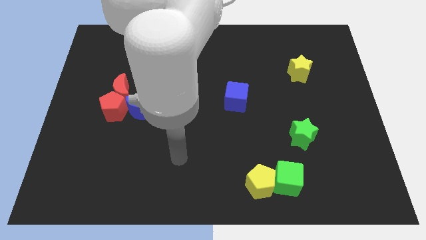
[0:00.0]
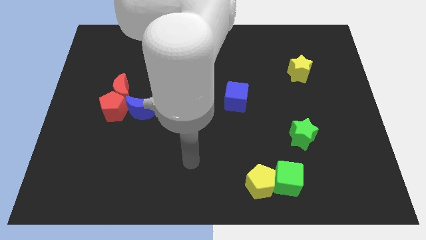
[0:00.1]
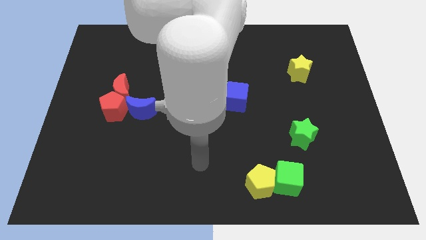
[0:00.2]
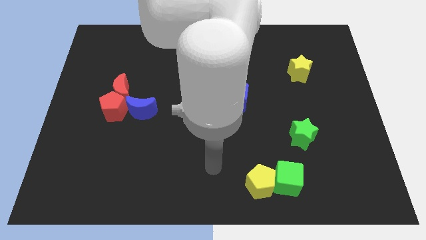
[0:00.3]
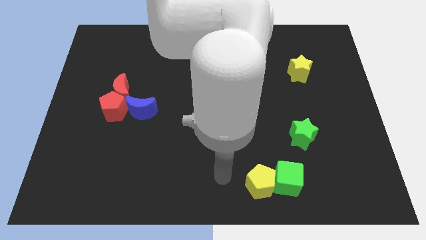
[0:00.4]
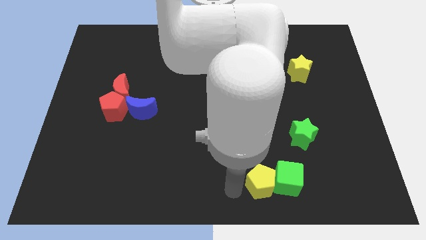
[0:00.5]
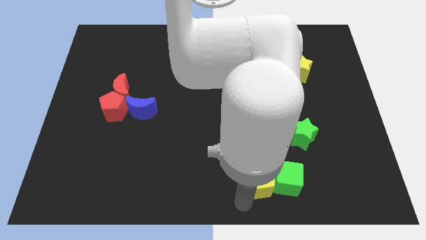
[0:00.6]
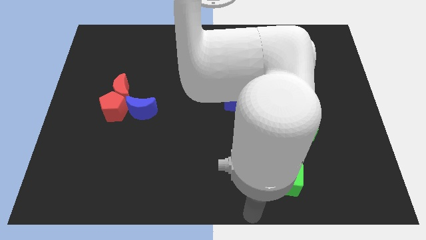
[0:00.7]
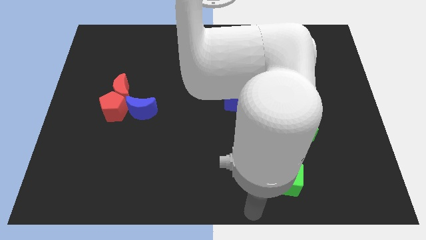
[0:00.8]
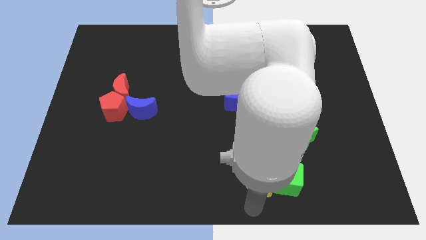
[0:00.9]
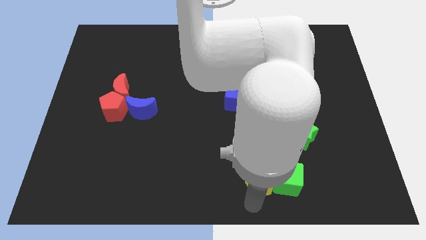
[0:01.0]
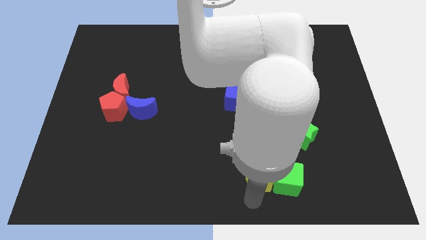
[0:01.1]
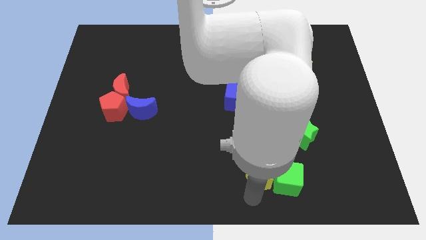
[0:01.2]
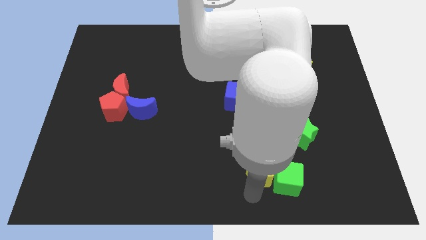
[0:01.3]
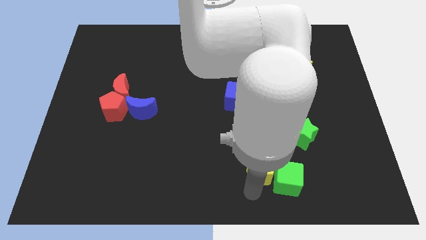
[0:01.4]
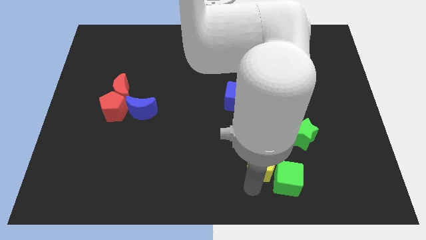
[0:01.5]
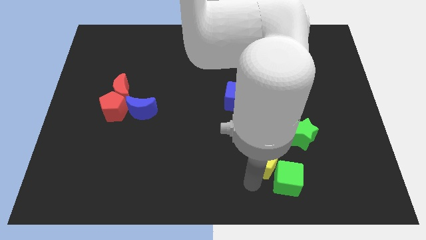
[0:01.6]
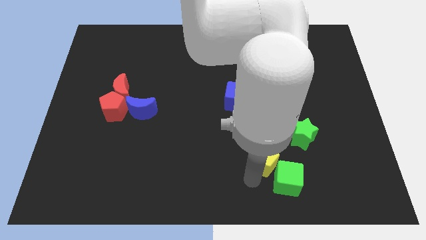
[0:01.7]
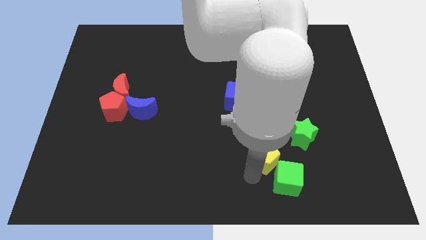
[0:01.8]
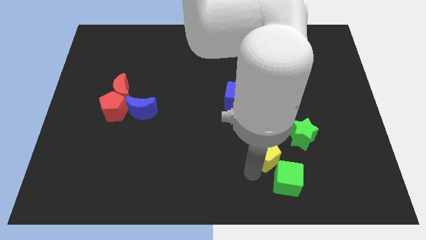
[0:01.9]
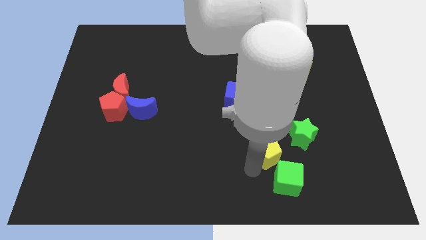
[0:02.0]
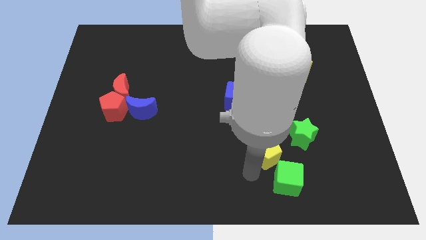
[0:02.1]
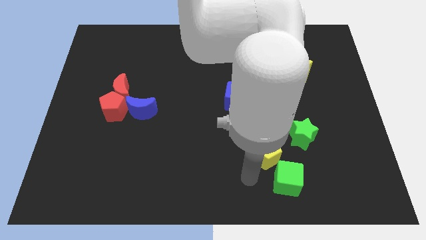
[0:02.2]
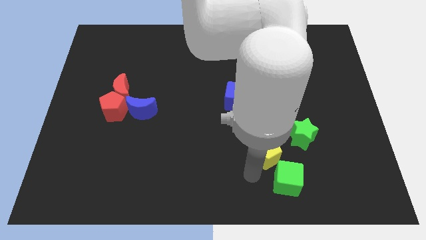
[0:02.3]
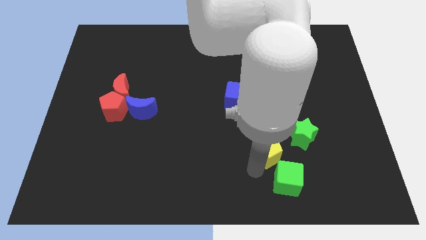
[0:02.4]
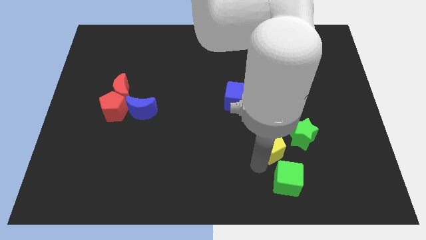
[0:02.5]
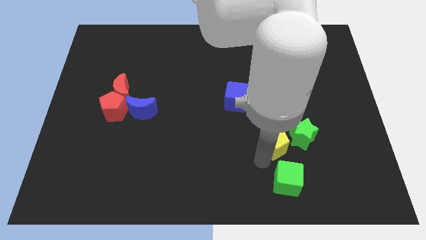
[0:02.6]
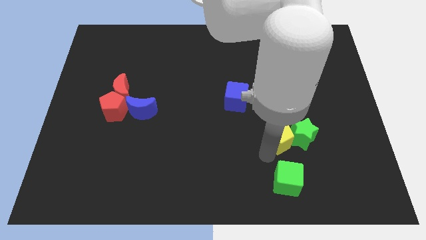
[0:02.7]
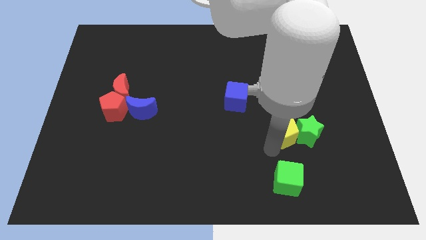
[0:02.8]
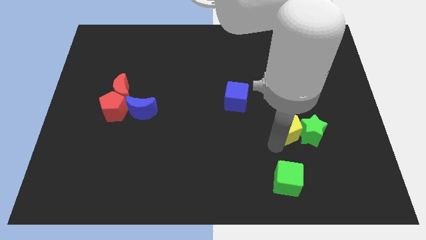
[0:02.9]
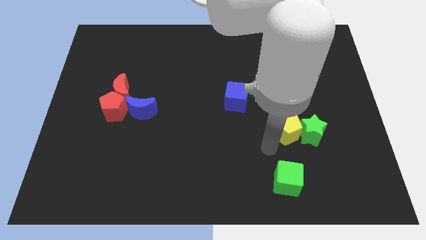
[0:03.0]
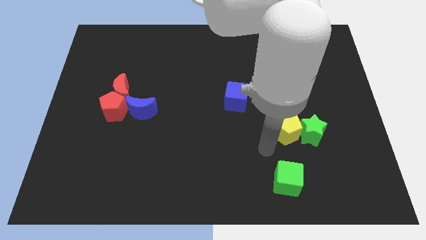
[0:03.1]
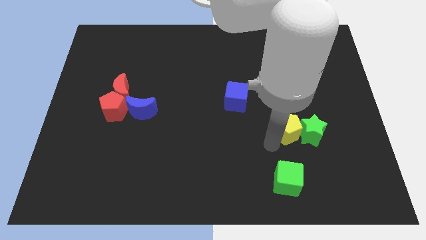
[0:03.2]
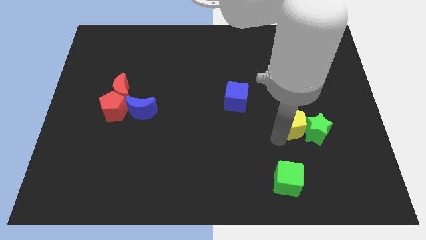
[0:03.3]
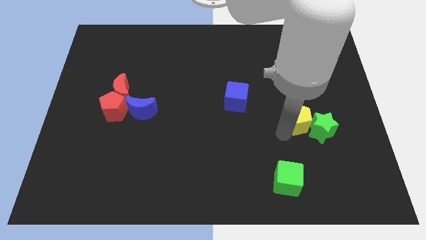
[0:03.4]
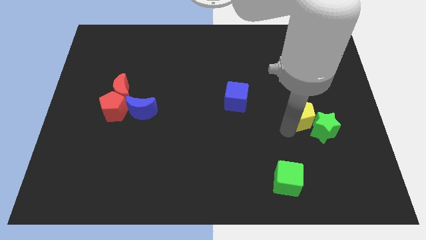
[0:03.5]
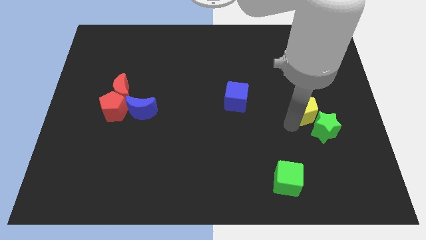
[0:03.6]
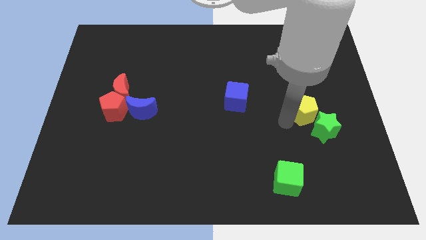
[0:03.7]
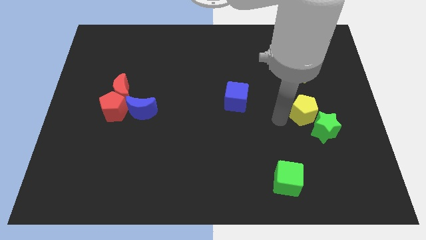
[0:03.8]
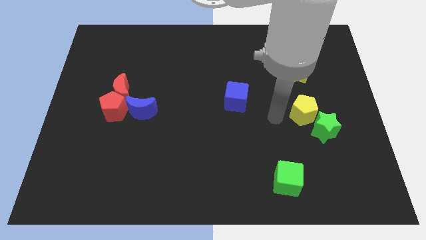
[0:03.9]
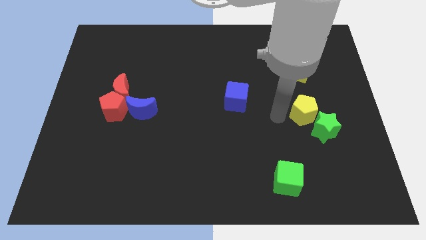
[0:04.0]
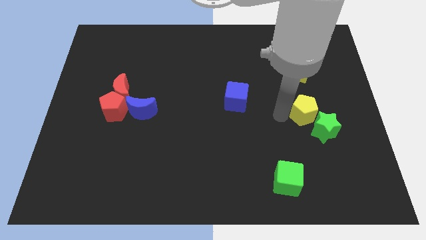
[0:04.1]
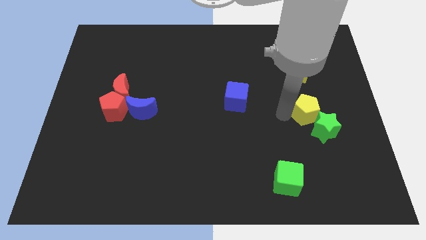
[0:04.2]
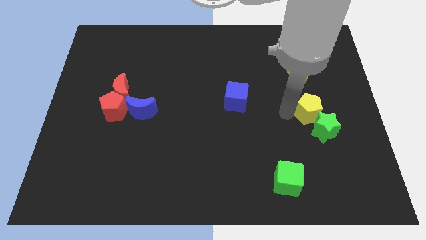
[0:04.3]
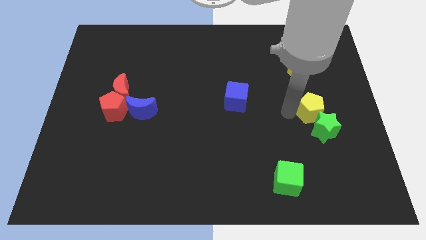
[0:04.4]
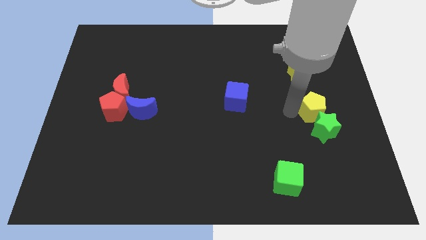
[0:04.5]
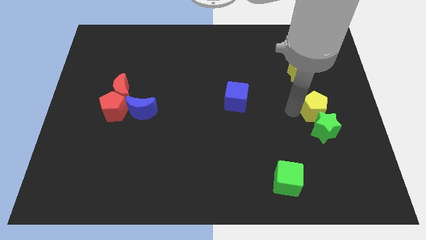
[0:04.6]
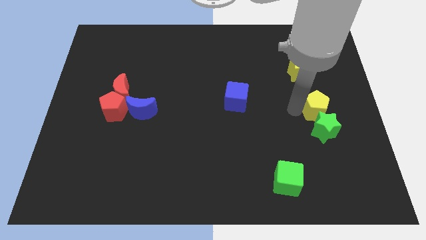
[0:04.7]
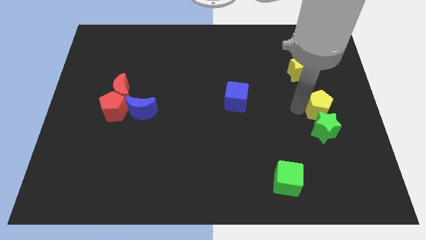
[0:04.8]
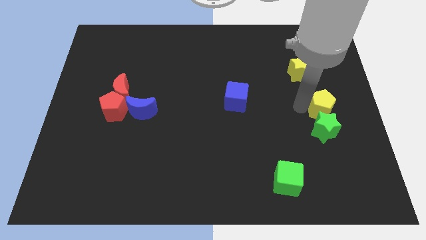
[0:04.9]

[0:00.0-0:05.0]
move the yellow pentagon to the center right

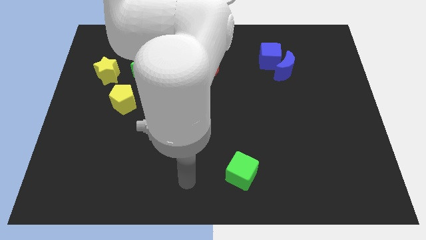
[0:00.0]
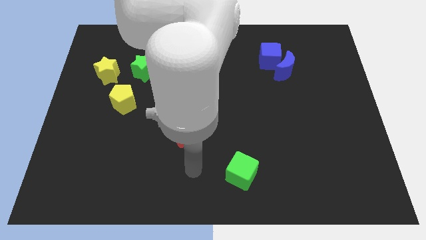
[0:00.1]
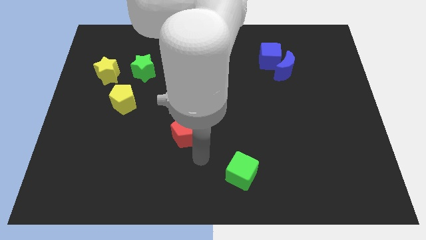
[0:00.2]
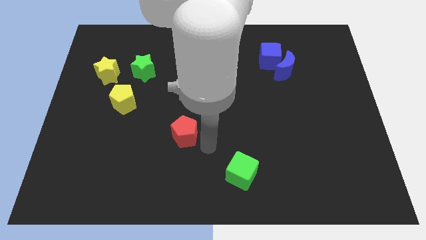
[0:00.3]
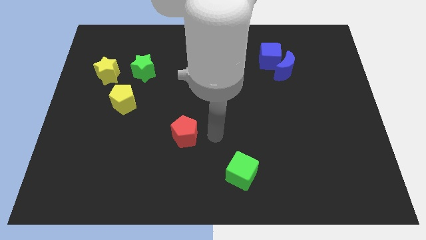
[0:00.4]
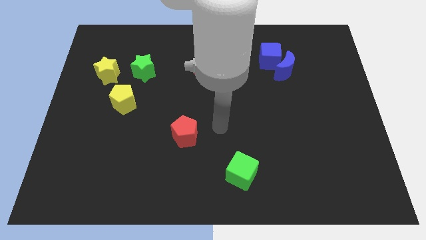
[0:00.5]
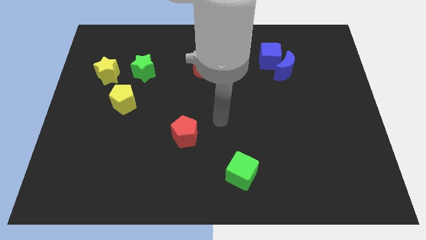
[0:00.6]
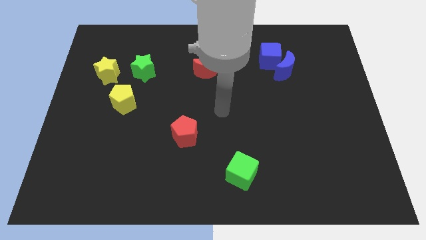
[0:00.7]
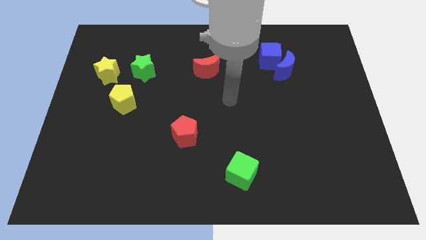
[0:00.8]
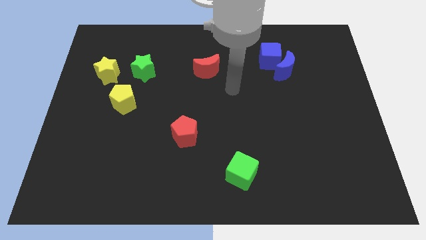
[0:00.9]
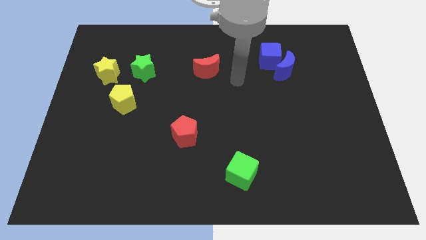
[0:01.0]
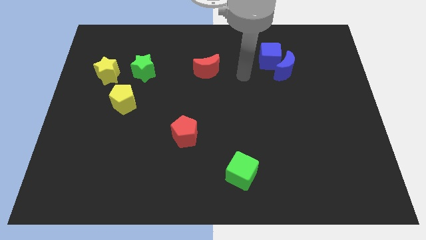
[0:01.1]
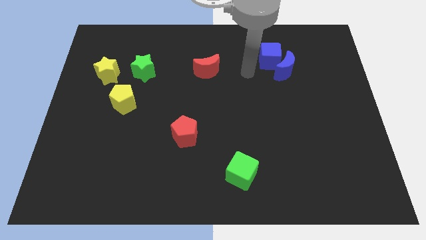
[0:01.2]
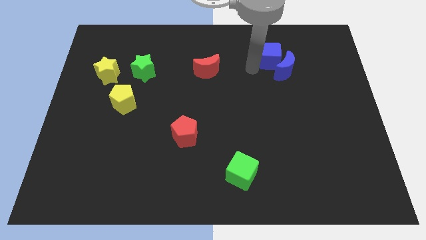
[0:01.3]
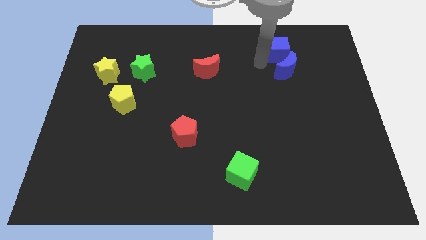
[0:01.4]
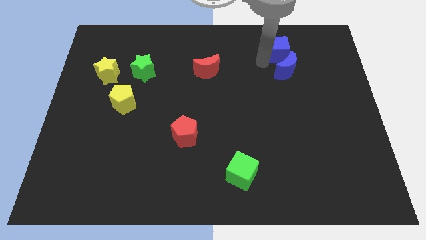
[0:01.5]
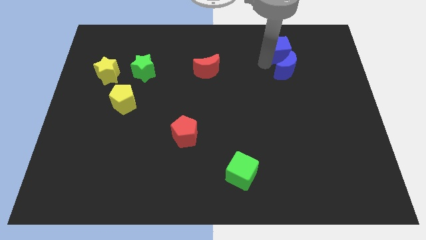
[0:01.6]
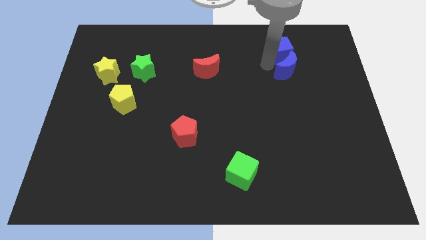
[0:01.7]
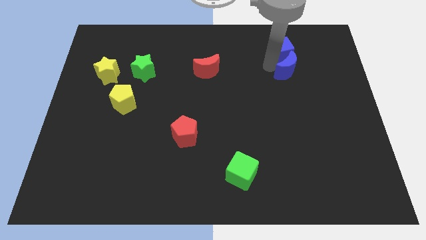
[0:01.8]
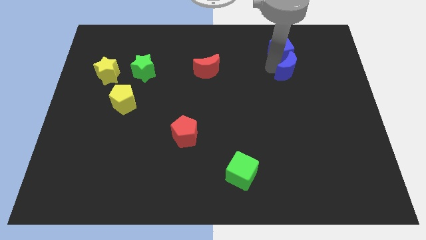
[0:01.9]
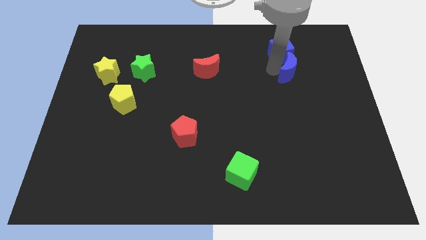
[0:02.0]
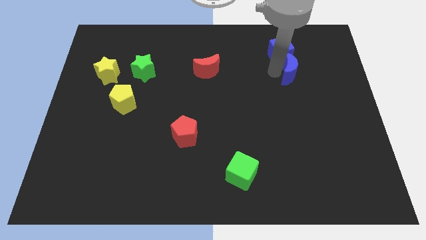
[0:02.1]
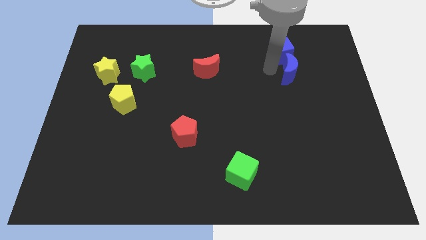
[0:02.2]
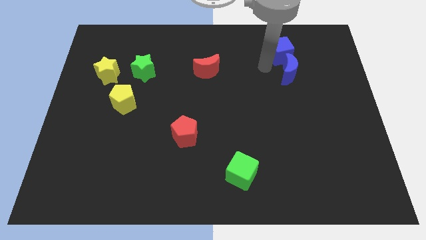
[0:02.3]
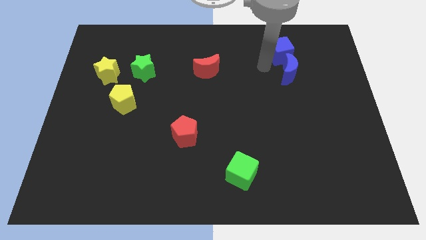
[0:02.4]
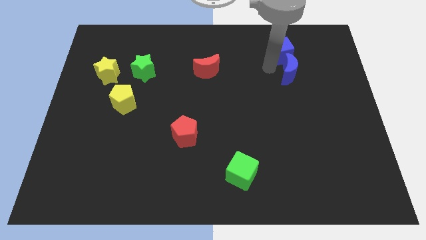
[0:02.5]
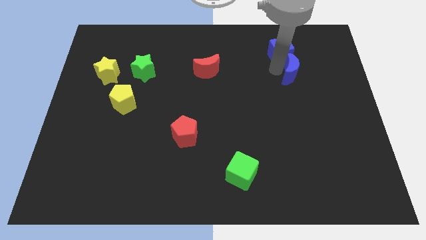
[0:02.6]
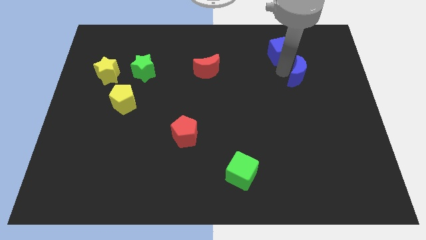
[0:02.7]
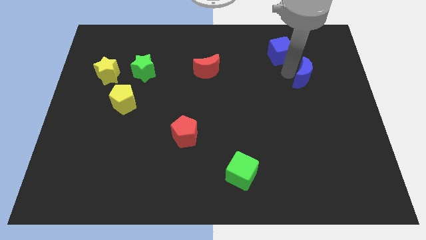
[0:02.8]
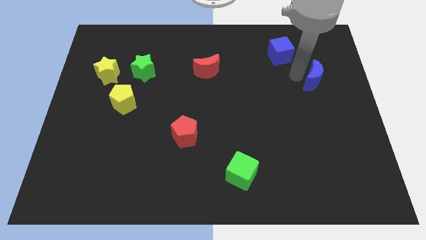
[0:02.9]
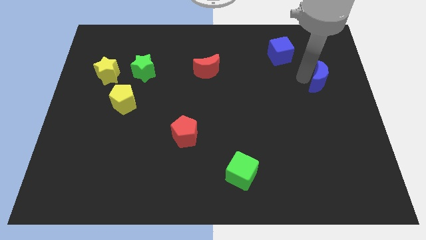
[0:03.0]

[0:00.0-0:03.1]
move the blue moon to the right side
